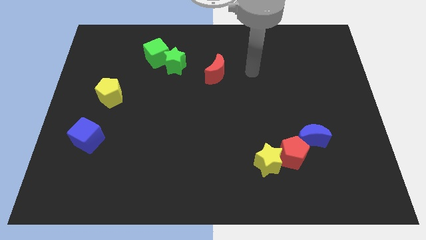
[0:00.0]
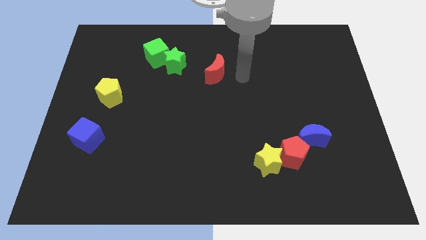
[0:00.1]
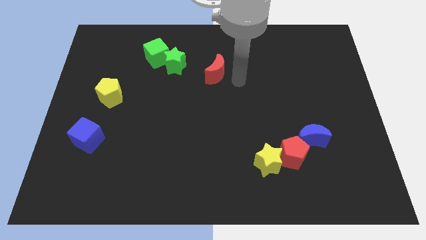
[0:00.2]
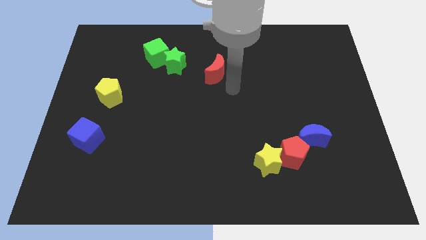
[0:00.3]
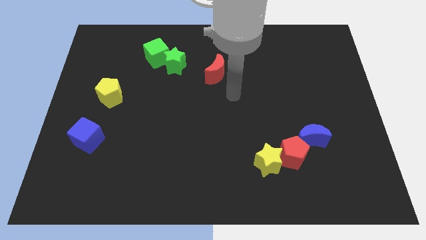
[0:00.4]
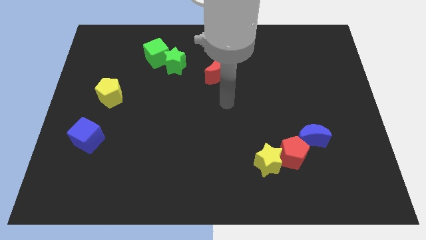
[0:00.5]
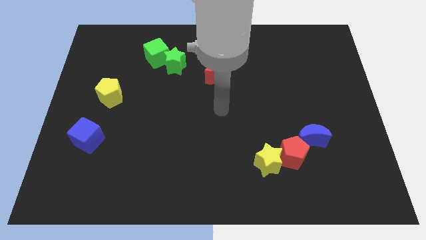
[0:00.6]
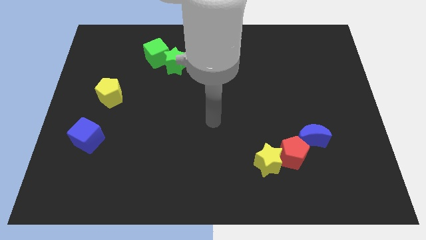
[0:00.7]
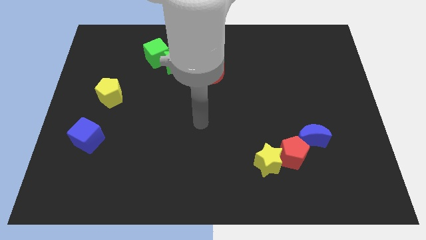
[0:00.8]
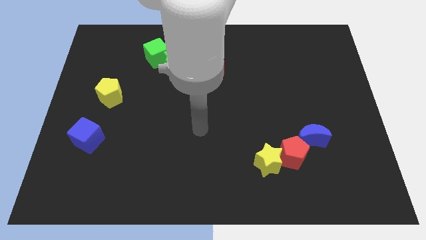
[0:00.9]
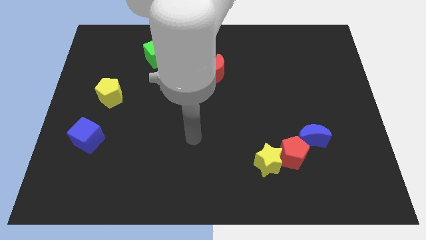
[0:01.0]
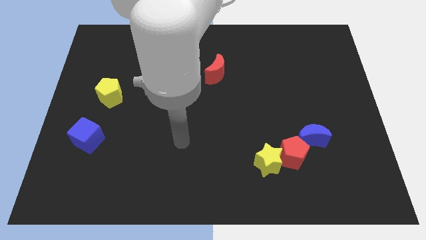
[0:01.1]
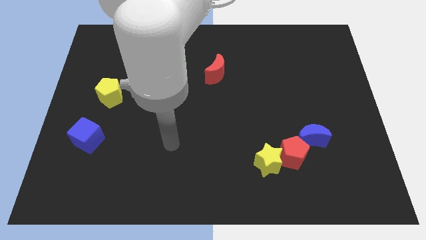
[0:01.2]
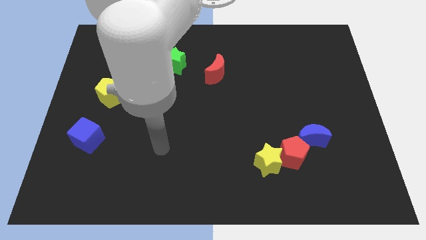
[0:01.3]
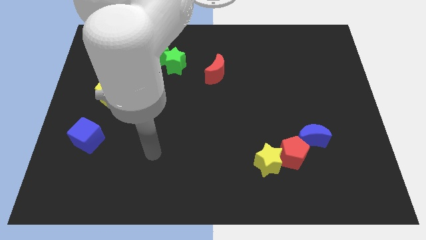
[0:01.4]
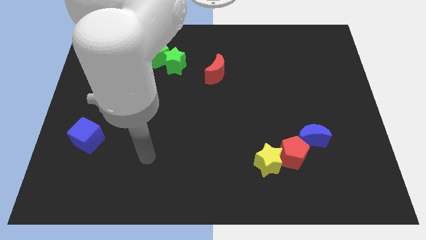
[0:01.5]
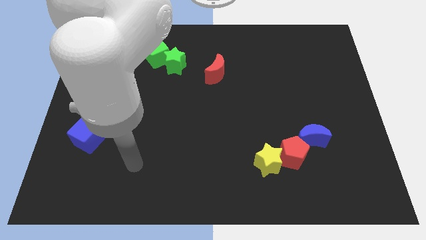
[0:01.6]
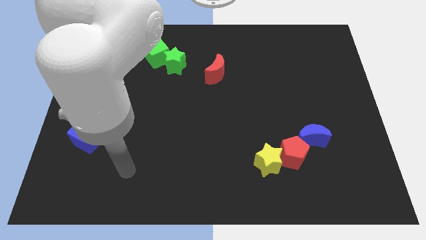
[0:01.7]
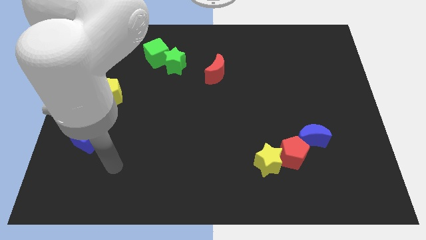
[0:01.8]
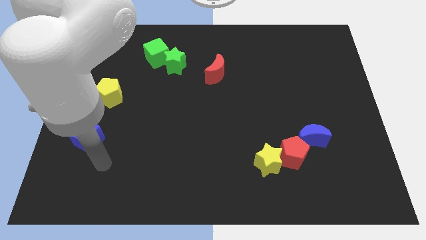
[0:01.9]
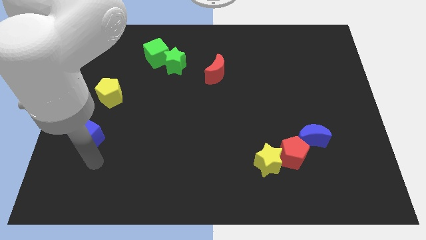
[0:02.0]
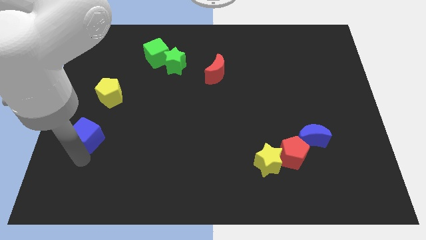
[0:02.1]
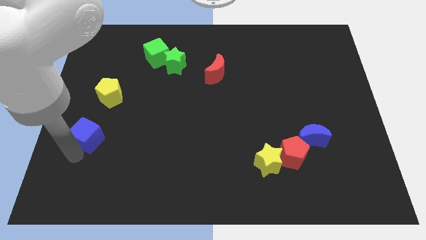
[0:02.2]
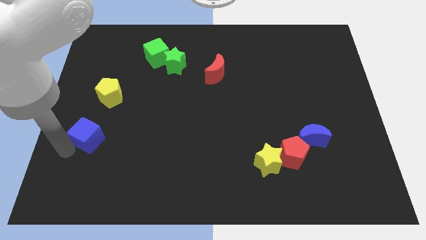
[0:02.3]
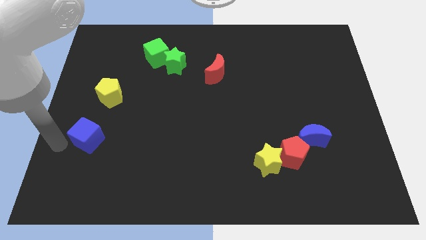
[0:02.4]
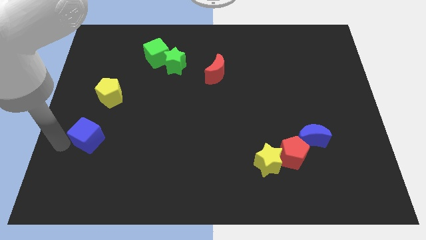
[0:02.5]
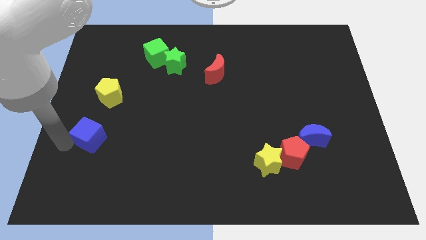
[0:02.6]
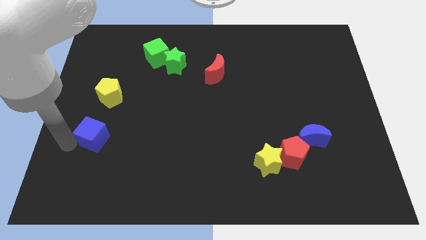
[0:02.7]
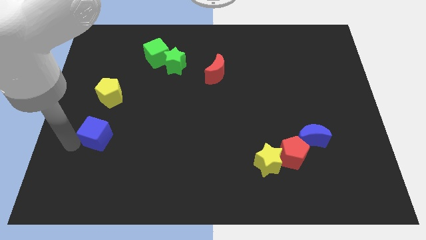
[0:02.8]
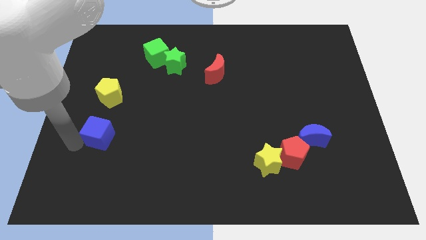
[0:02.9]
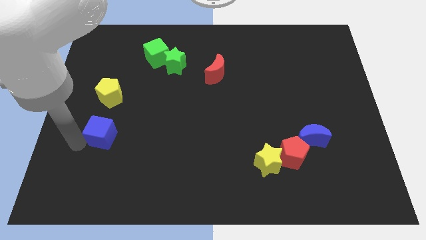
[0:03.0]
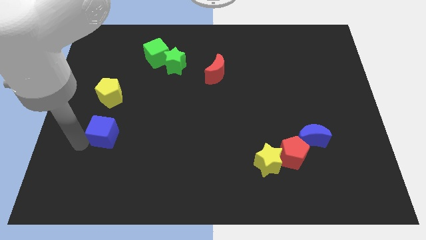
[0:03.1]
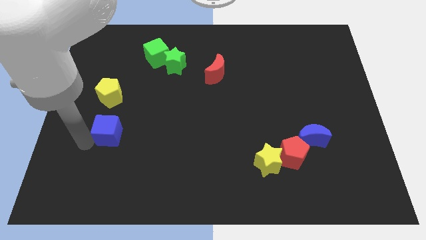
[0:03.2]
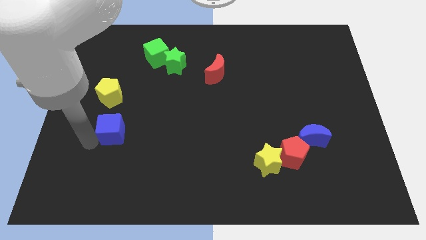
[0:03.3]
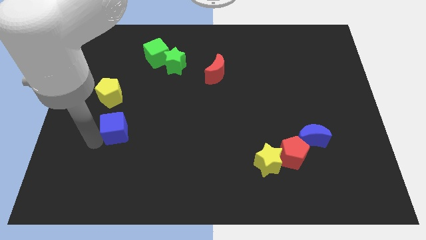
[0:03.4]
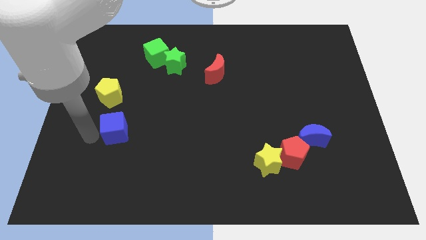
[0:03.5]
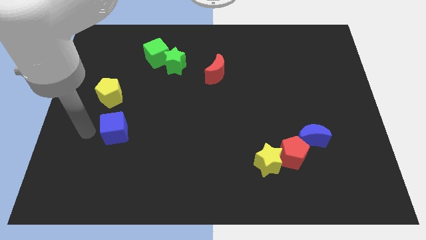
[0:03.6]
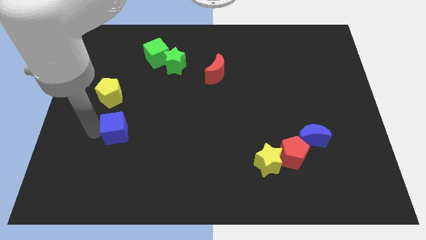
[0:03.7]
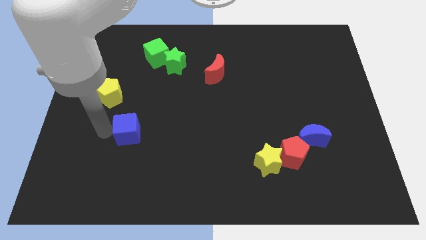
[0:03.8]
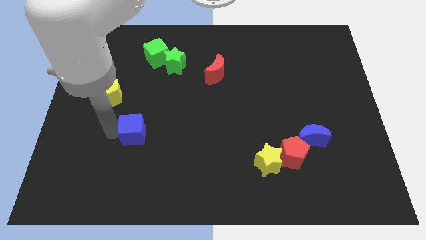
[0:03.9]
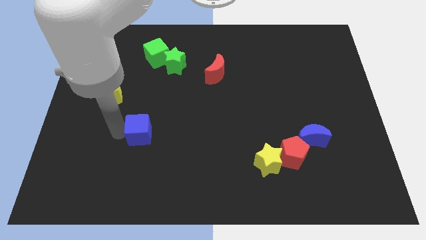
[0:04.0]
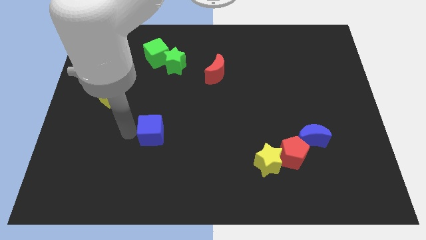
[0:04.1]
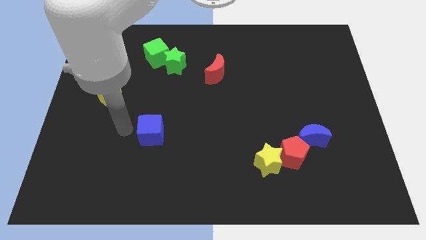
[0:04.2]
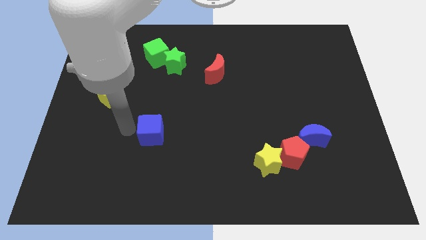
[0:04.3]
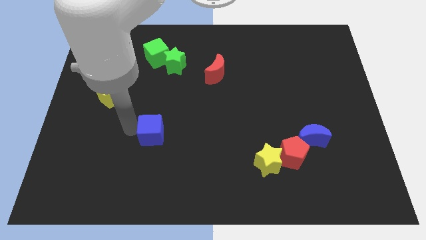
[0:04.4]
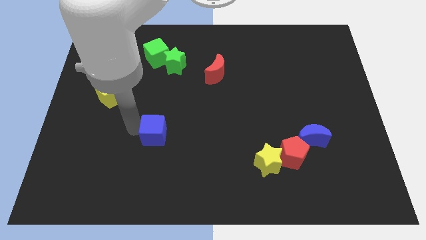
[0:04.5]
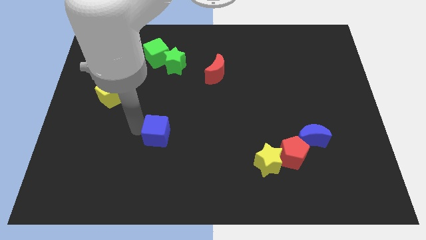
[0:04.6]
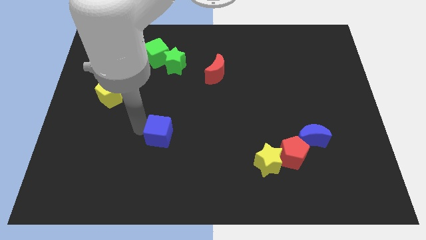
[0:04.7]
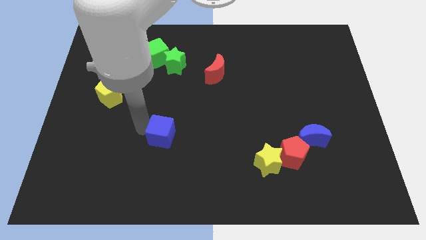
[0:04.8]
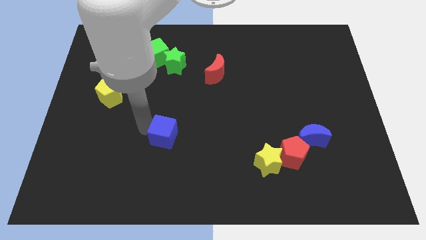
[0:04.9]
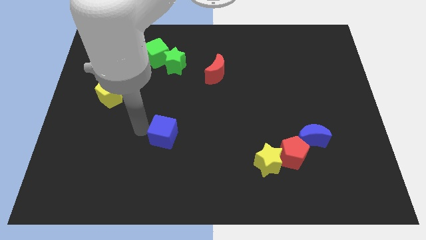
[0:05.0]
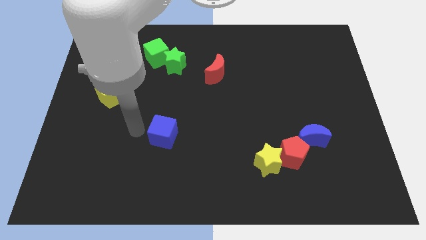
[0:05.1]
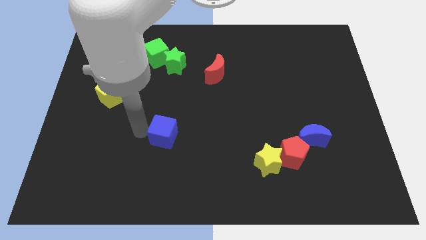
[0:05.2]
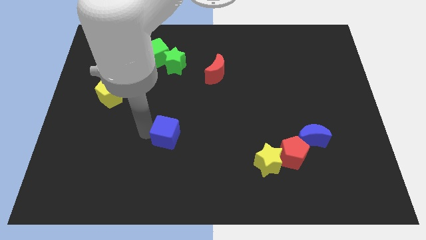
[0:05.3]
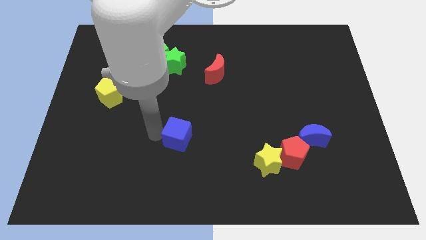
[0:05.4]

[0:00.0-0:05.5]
slide the blue cube to the right

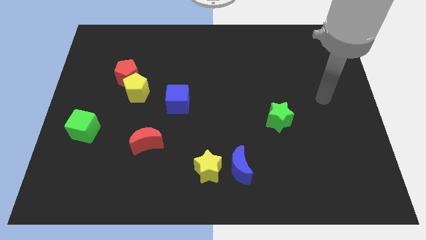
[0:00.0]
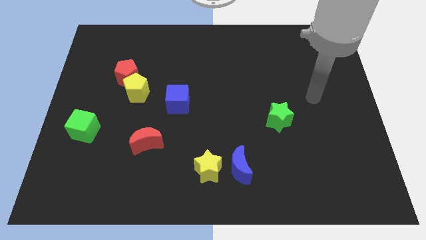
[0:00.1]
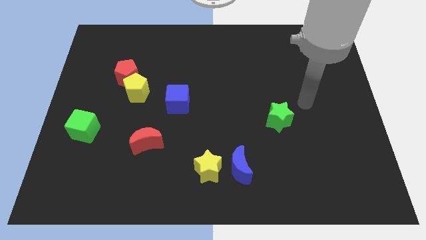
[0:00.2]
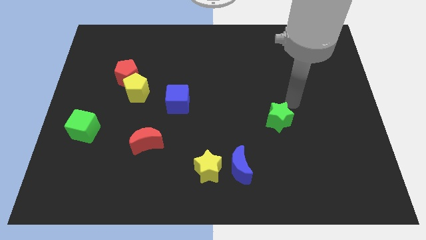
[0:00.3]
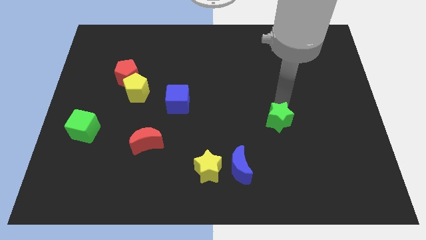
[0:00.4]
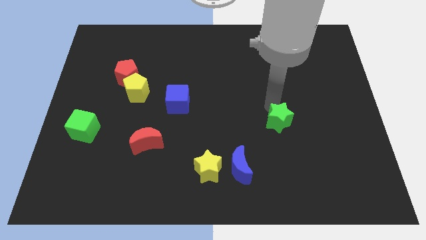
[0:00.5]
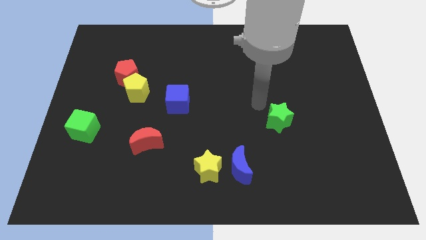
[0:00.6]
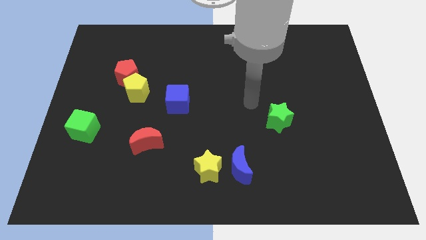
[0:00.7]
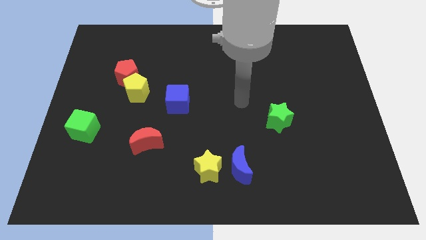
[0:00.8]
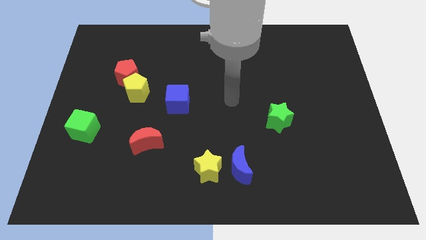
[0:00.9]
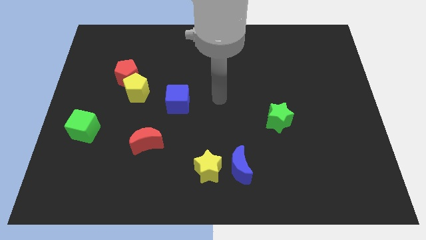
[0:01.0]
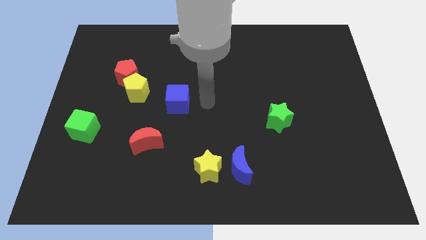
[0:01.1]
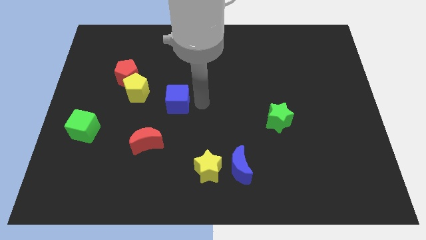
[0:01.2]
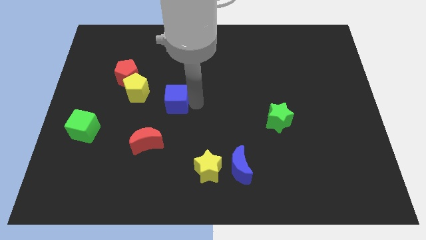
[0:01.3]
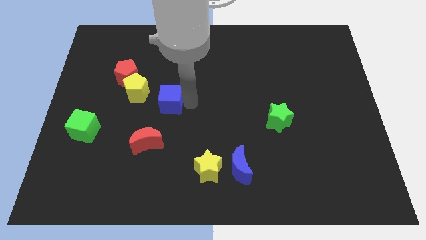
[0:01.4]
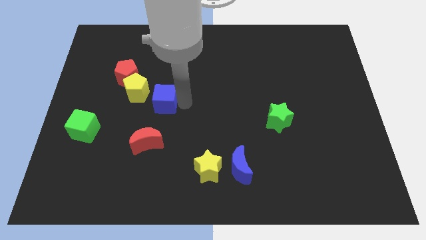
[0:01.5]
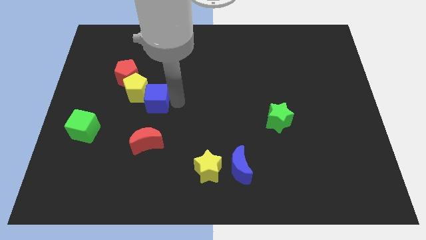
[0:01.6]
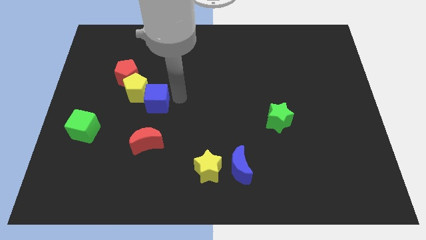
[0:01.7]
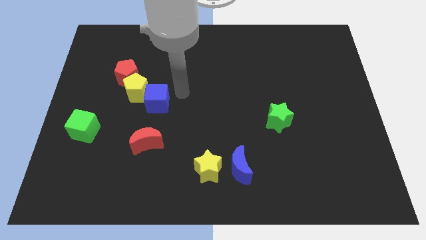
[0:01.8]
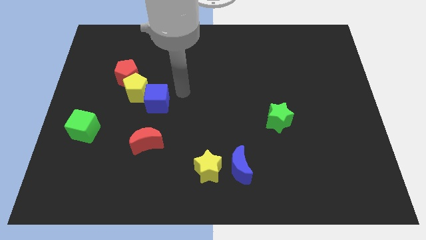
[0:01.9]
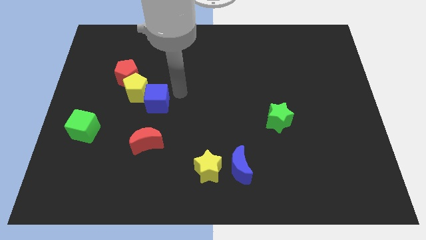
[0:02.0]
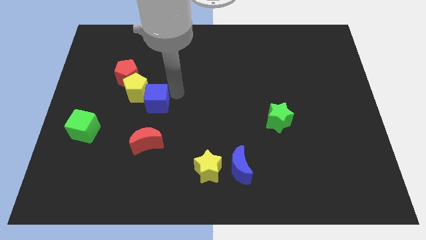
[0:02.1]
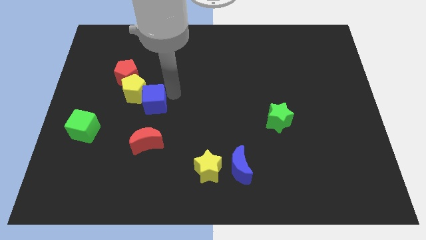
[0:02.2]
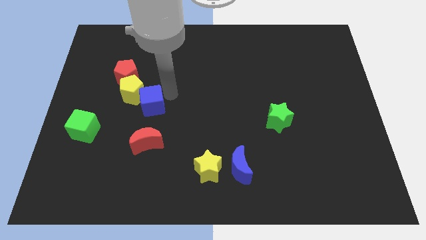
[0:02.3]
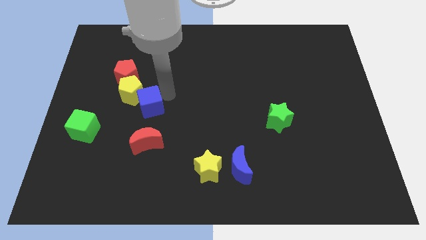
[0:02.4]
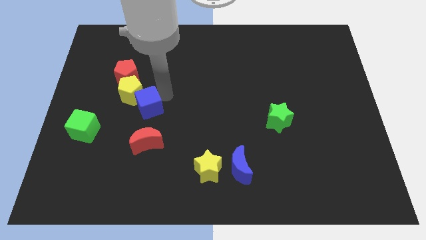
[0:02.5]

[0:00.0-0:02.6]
slightly move the blue cube to the left

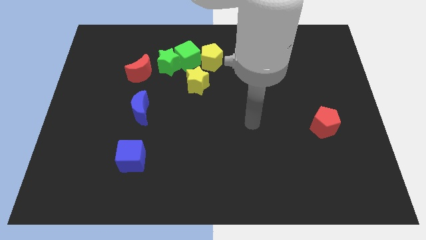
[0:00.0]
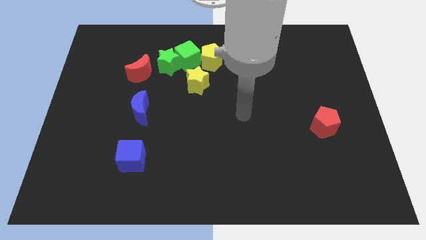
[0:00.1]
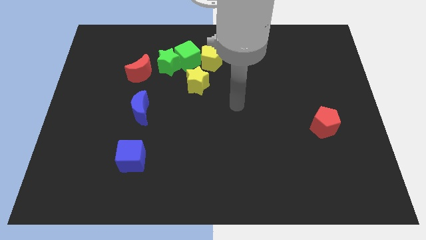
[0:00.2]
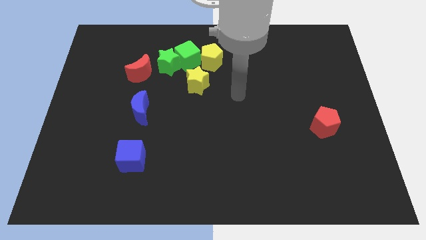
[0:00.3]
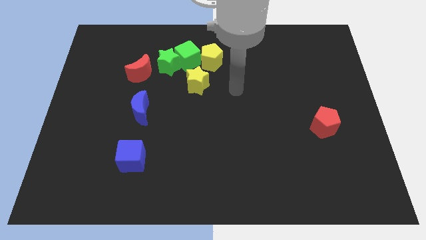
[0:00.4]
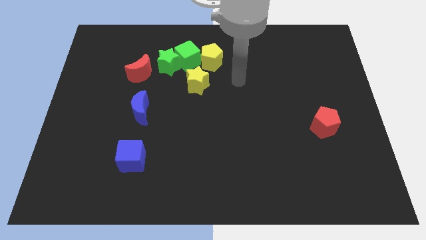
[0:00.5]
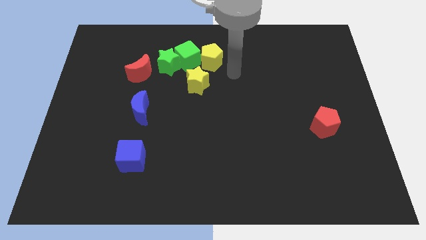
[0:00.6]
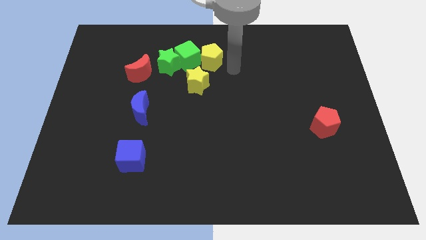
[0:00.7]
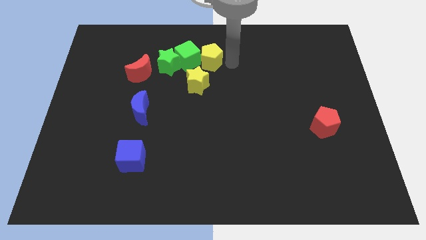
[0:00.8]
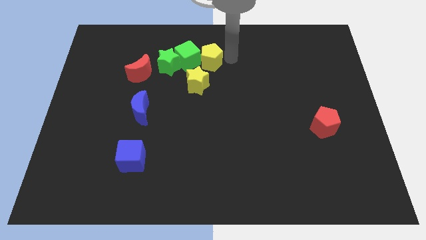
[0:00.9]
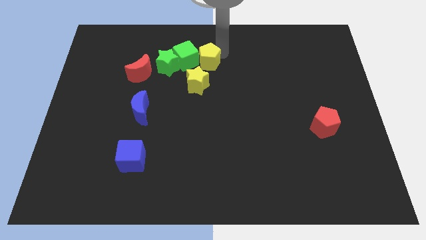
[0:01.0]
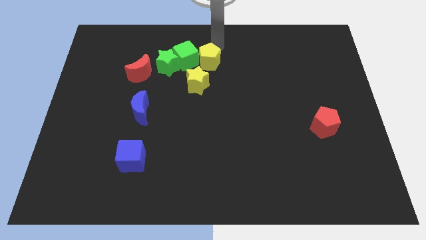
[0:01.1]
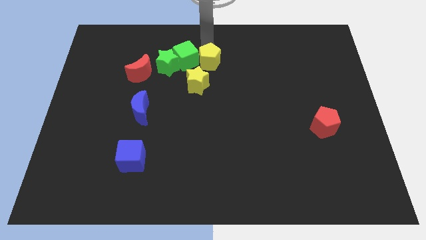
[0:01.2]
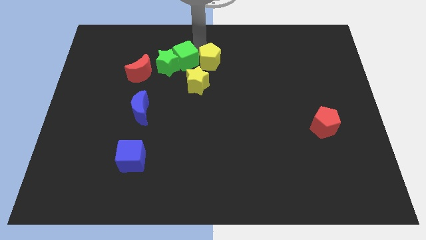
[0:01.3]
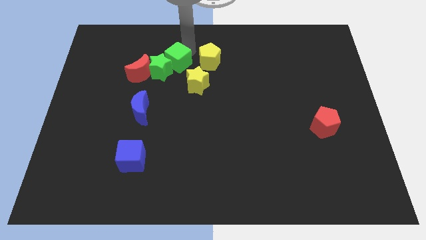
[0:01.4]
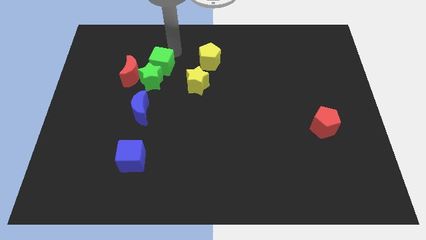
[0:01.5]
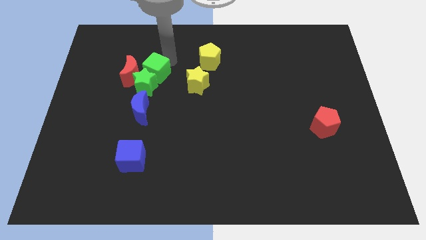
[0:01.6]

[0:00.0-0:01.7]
slide the green star down and left a little bit
